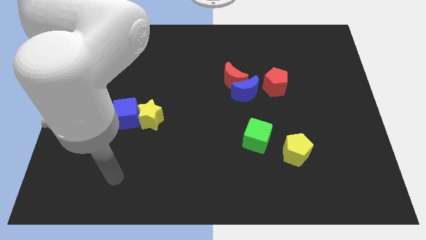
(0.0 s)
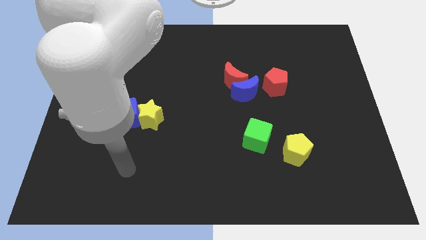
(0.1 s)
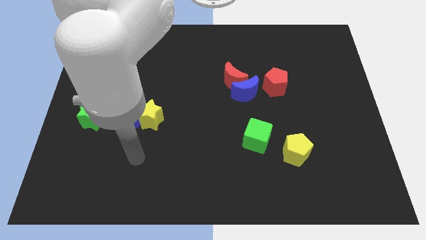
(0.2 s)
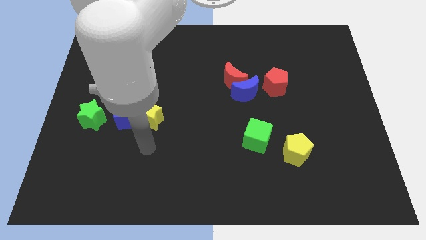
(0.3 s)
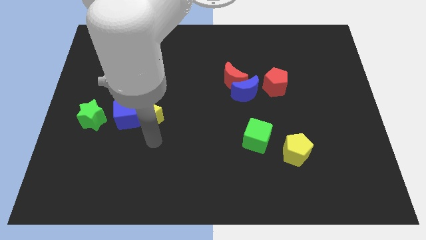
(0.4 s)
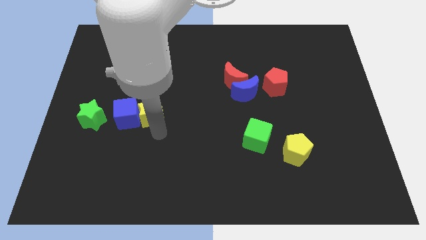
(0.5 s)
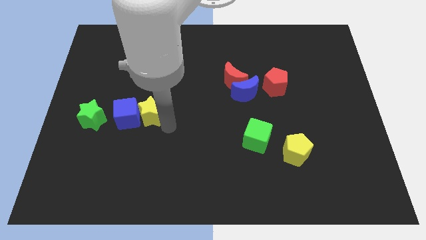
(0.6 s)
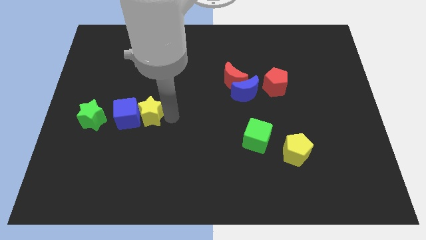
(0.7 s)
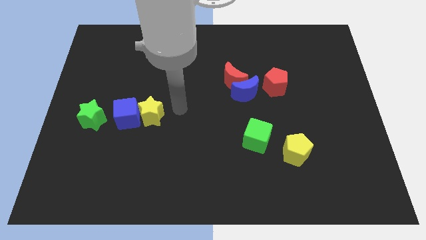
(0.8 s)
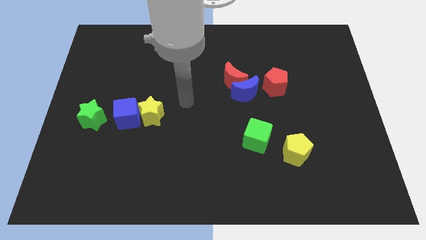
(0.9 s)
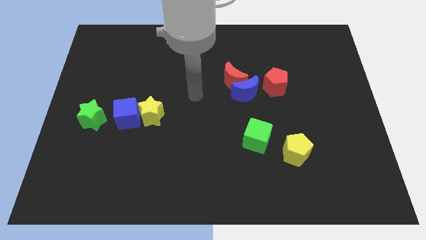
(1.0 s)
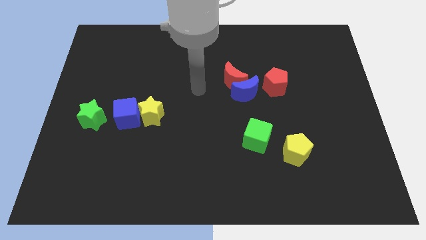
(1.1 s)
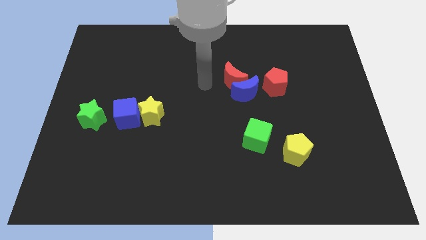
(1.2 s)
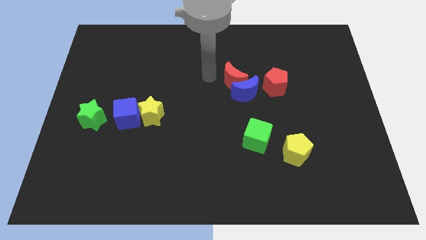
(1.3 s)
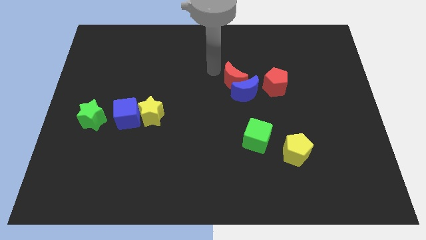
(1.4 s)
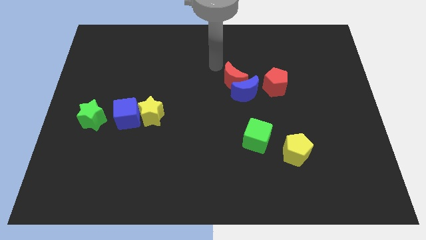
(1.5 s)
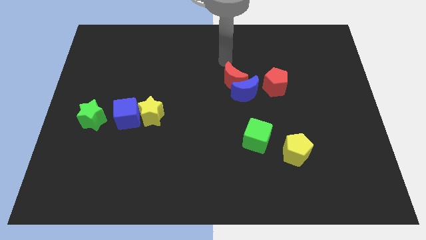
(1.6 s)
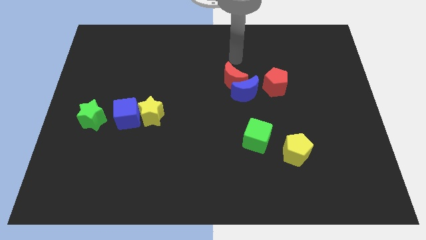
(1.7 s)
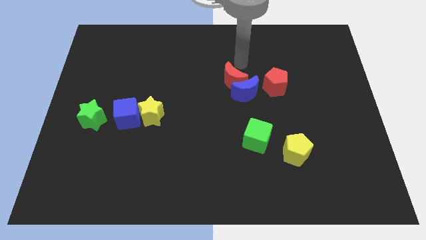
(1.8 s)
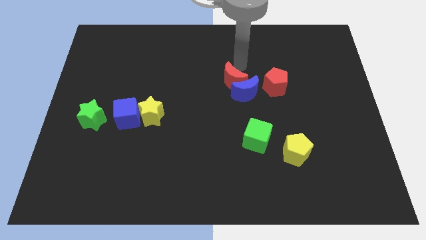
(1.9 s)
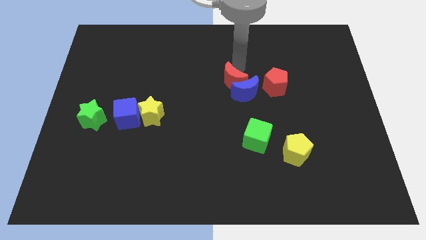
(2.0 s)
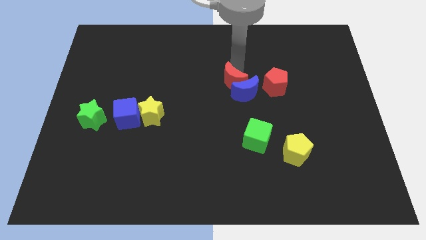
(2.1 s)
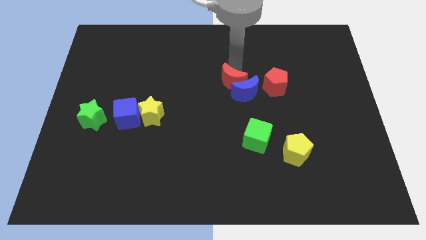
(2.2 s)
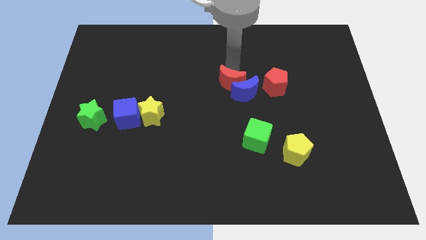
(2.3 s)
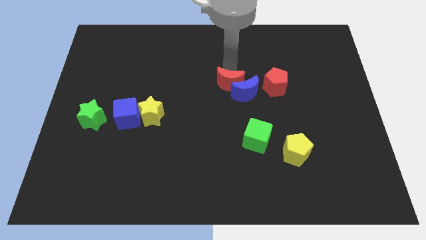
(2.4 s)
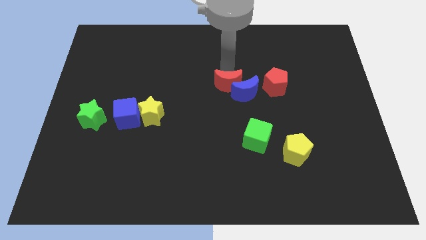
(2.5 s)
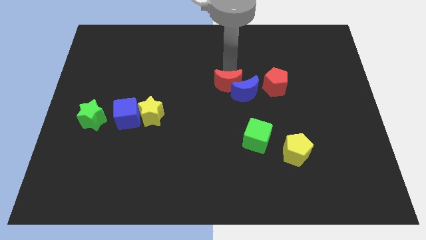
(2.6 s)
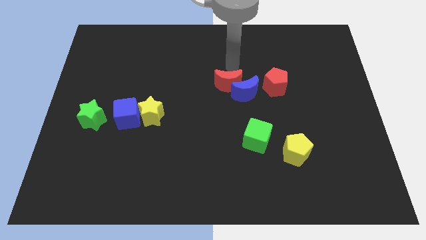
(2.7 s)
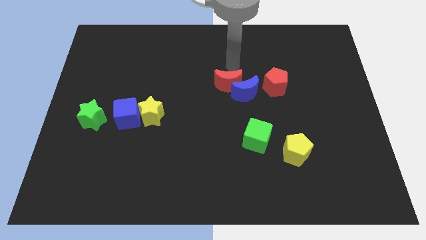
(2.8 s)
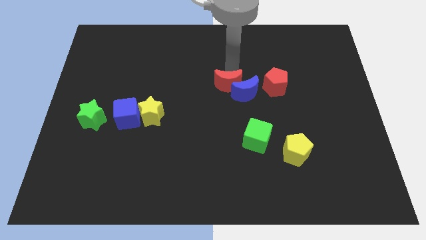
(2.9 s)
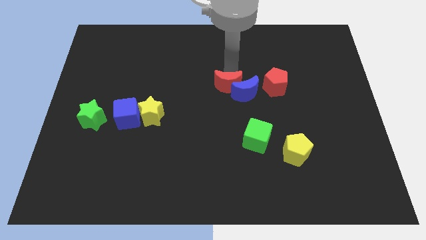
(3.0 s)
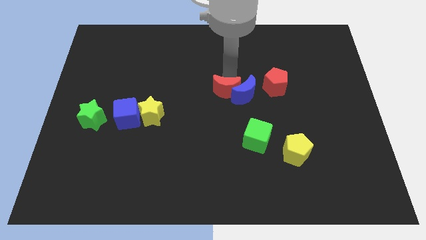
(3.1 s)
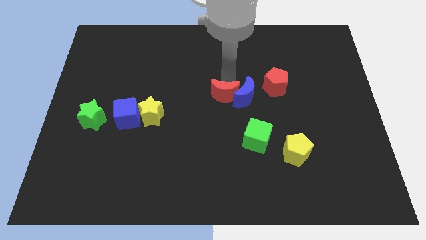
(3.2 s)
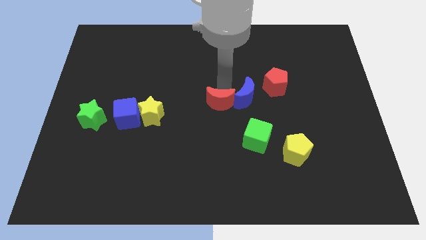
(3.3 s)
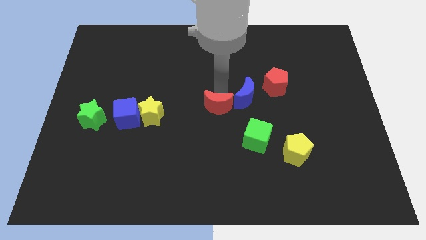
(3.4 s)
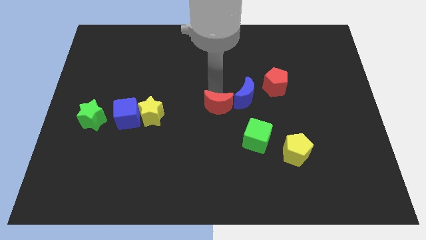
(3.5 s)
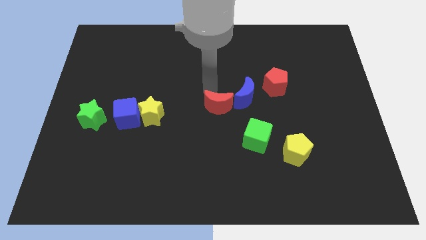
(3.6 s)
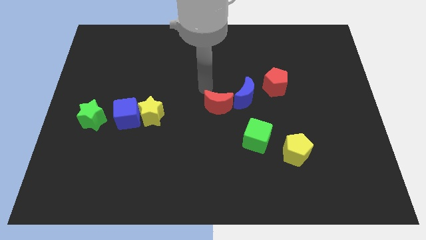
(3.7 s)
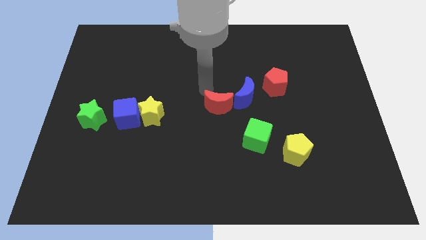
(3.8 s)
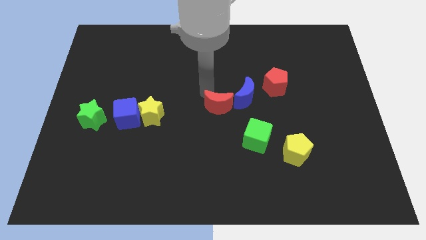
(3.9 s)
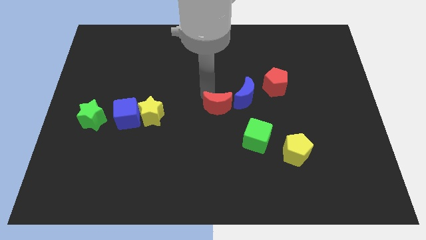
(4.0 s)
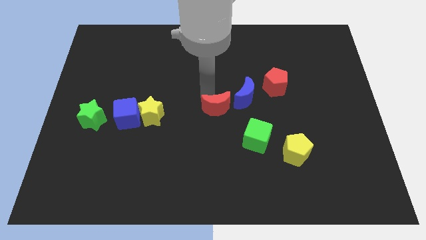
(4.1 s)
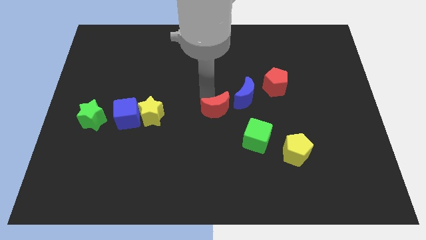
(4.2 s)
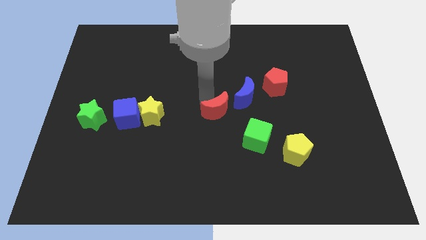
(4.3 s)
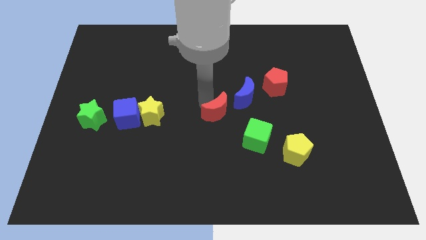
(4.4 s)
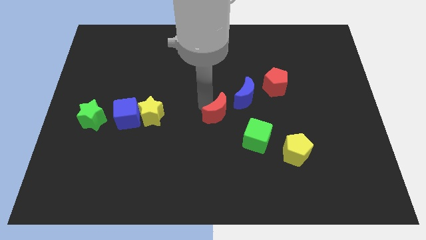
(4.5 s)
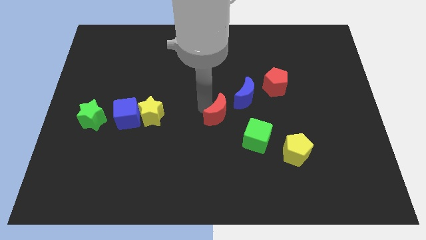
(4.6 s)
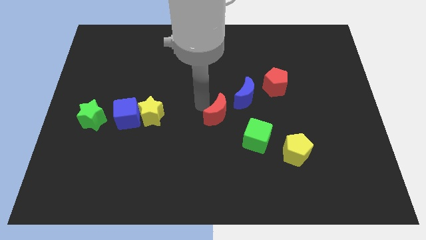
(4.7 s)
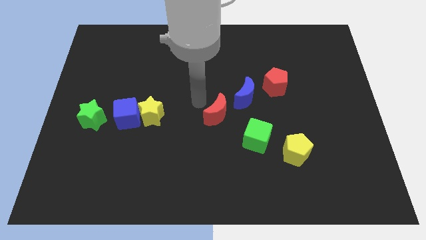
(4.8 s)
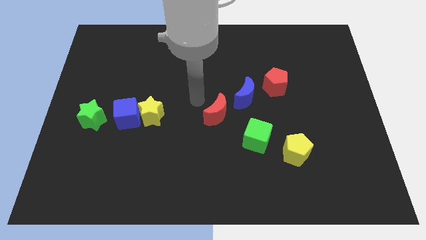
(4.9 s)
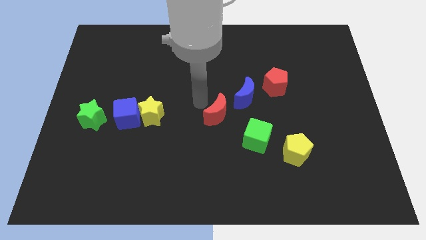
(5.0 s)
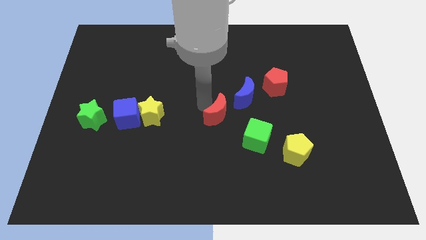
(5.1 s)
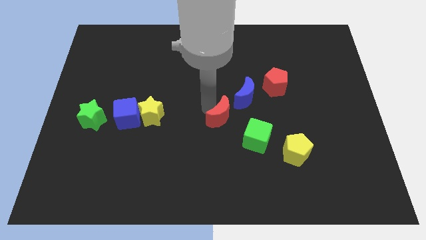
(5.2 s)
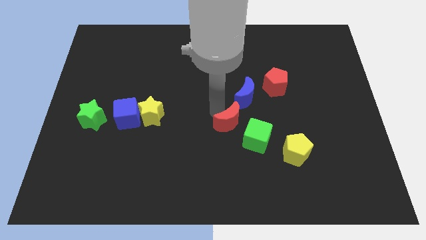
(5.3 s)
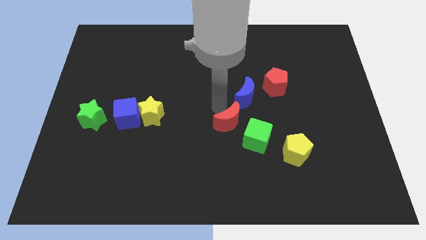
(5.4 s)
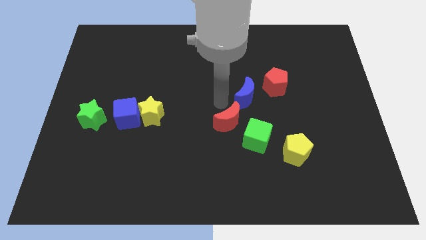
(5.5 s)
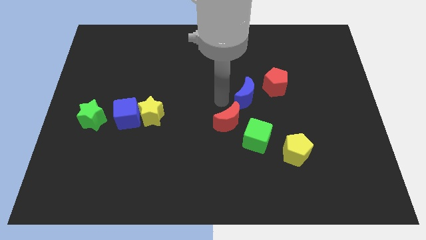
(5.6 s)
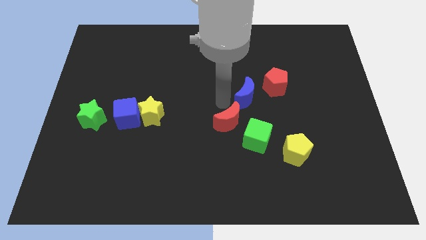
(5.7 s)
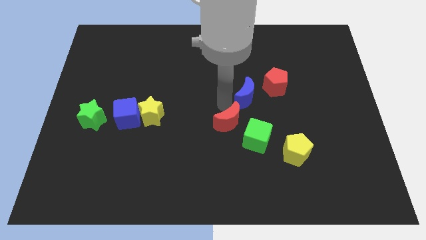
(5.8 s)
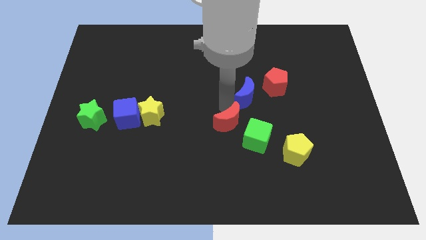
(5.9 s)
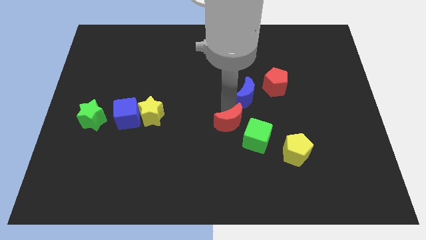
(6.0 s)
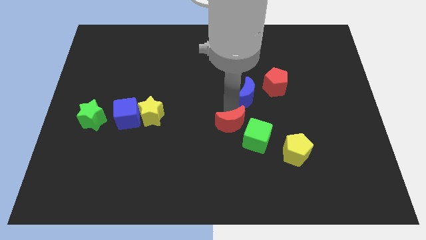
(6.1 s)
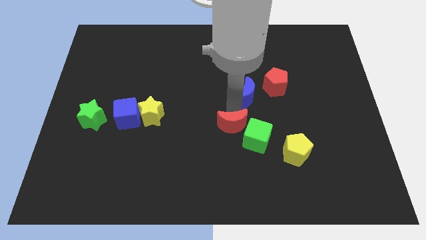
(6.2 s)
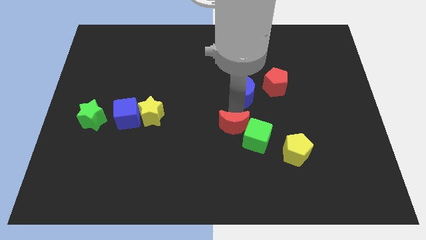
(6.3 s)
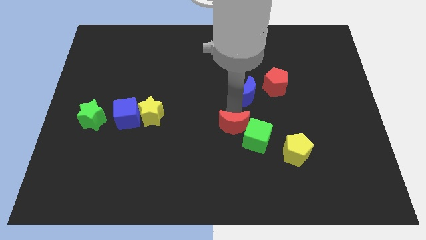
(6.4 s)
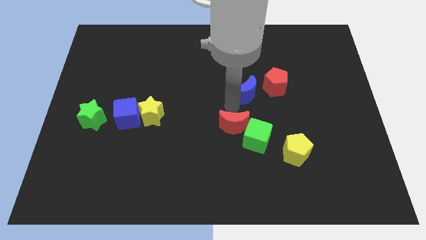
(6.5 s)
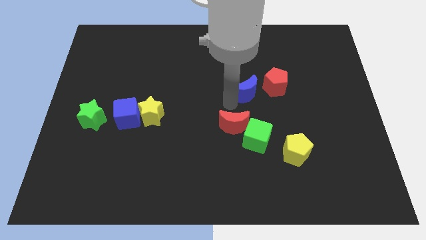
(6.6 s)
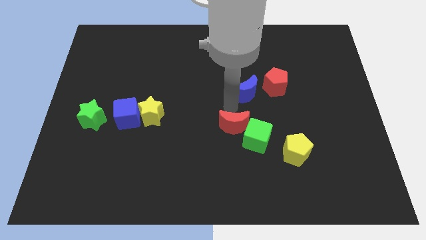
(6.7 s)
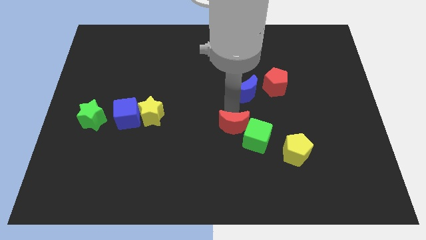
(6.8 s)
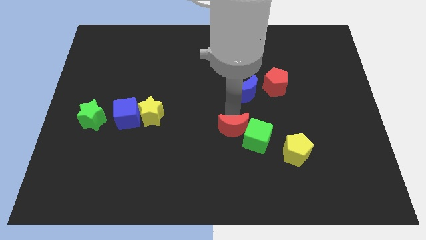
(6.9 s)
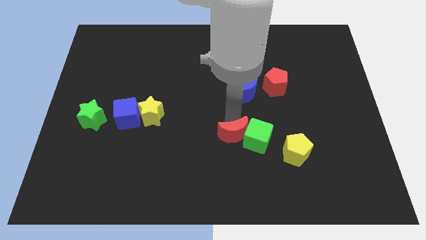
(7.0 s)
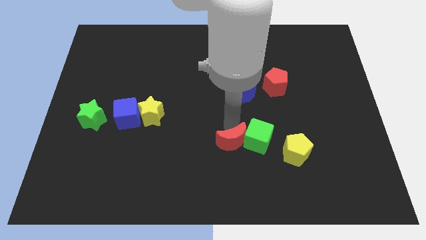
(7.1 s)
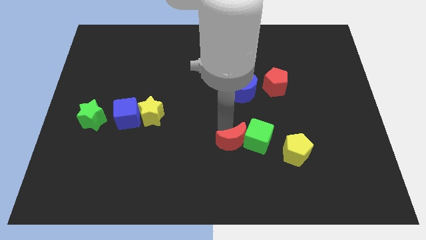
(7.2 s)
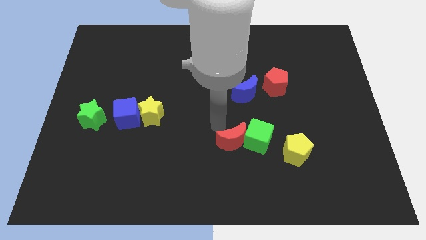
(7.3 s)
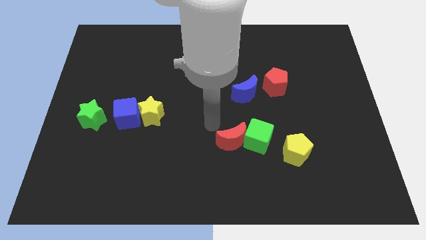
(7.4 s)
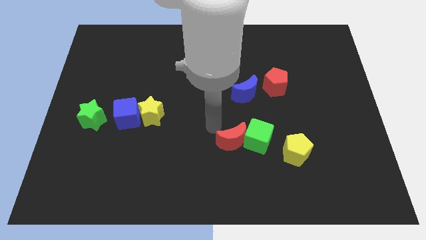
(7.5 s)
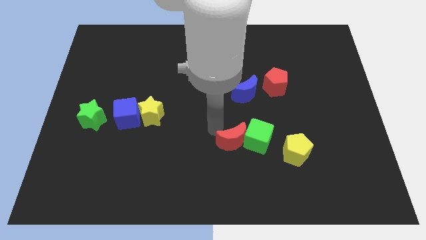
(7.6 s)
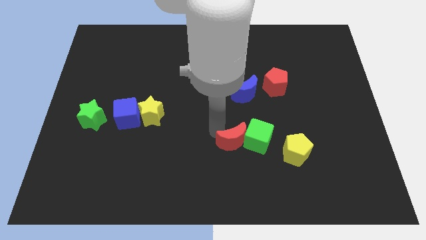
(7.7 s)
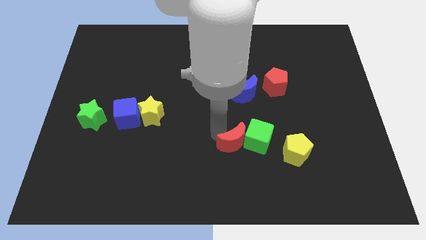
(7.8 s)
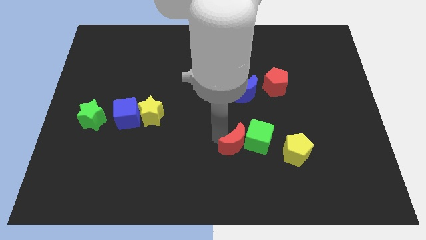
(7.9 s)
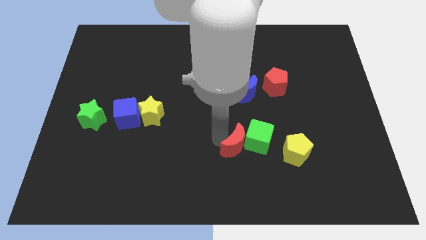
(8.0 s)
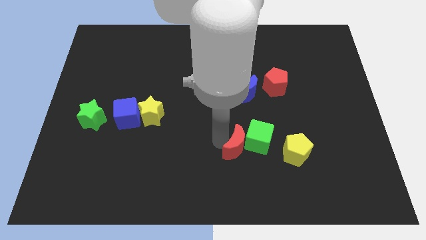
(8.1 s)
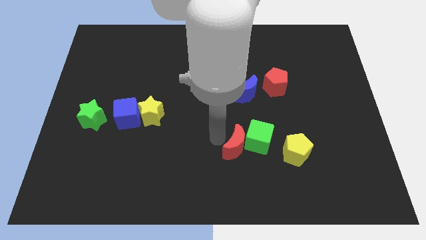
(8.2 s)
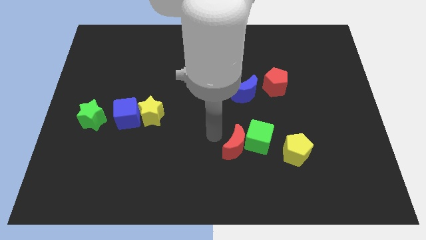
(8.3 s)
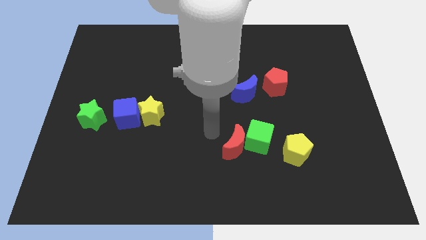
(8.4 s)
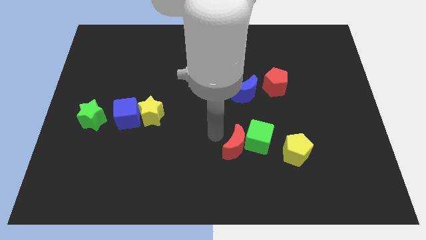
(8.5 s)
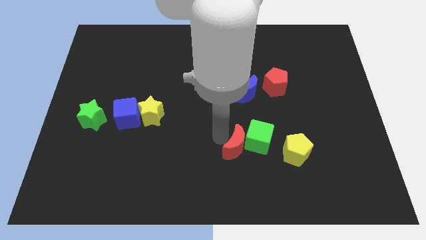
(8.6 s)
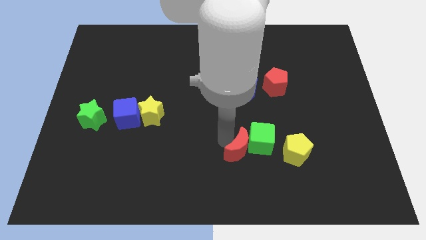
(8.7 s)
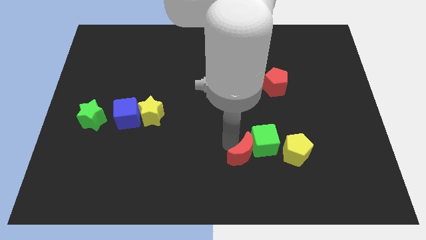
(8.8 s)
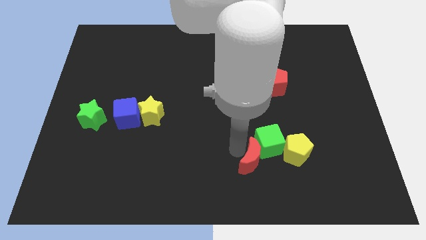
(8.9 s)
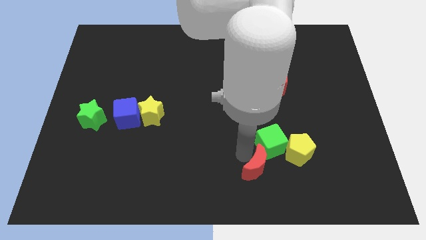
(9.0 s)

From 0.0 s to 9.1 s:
move the red moon to the bottom left of the yellow pentagon
